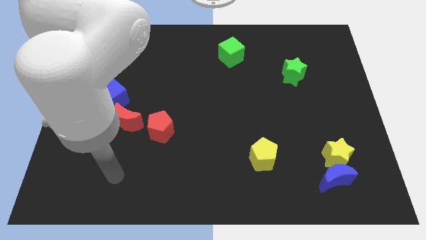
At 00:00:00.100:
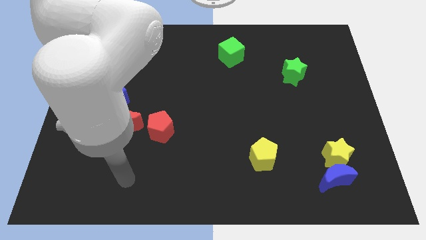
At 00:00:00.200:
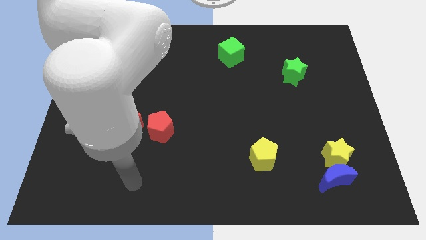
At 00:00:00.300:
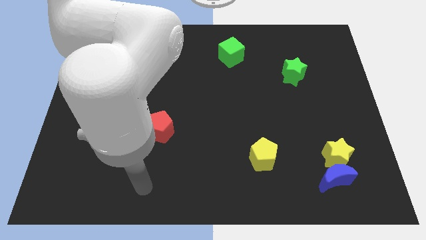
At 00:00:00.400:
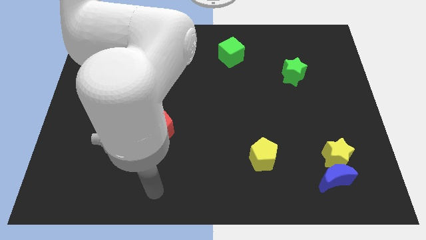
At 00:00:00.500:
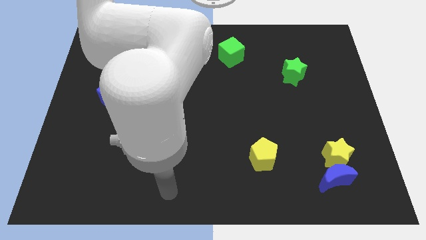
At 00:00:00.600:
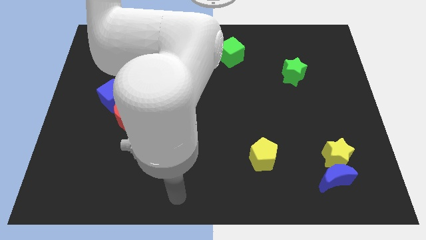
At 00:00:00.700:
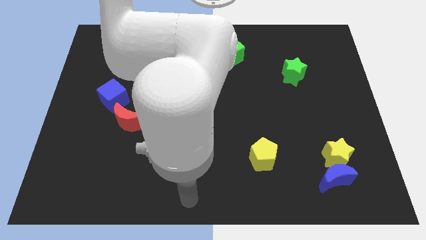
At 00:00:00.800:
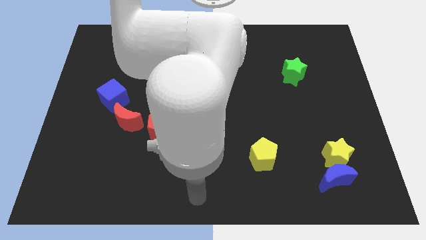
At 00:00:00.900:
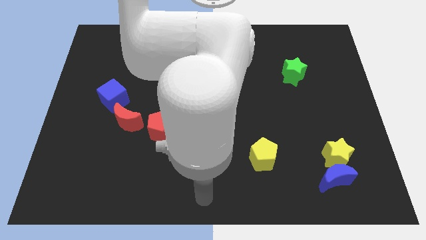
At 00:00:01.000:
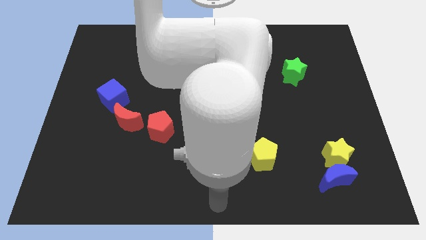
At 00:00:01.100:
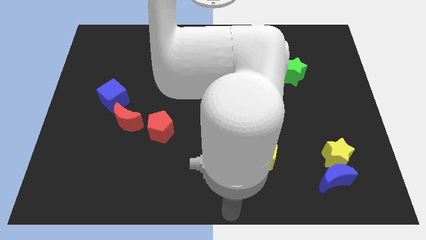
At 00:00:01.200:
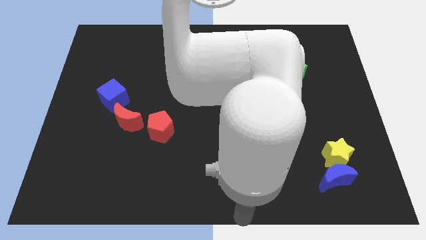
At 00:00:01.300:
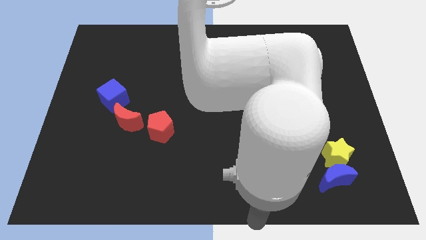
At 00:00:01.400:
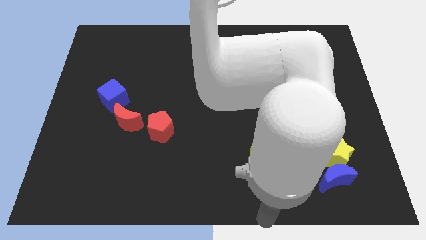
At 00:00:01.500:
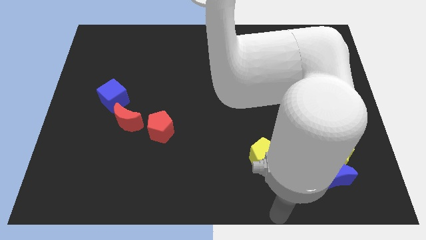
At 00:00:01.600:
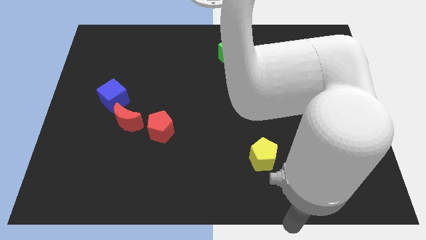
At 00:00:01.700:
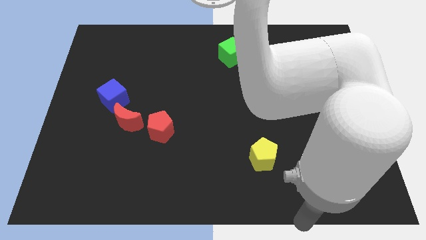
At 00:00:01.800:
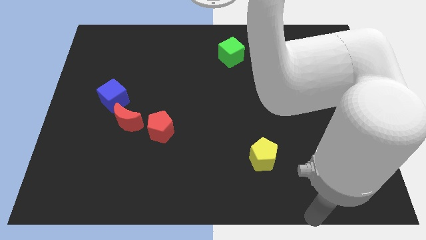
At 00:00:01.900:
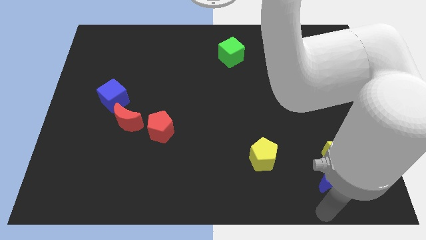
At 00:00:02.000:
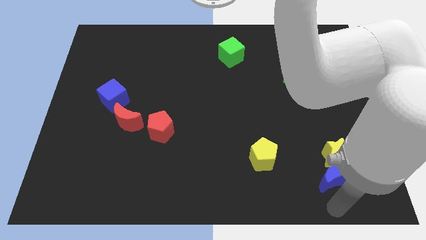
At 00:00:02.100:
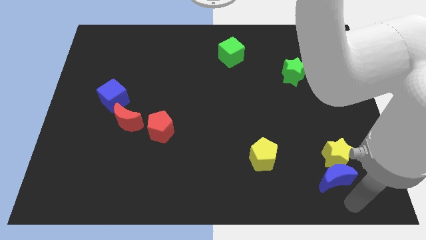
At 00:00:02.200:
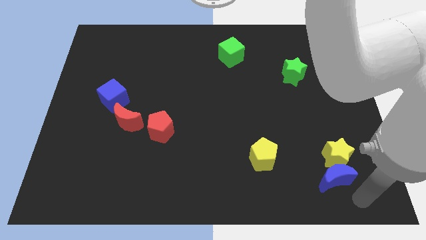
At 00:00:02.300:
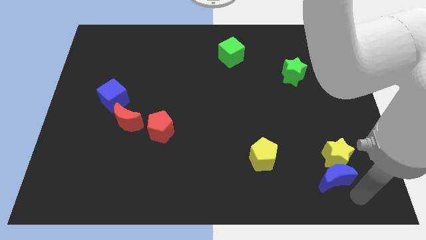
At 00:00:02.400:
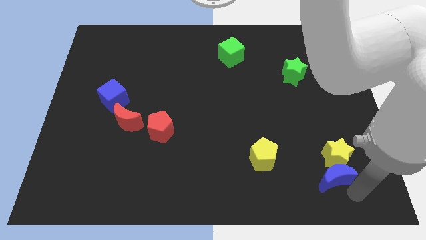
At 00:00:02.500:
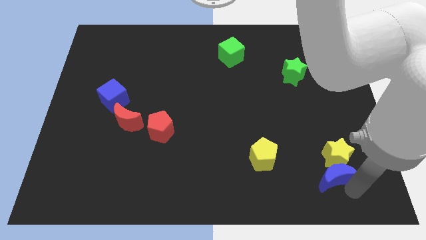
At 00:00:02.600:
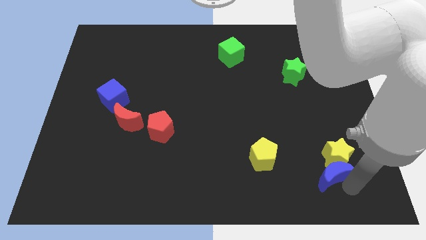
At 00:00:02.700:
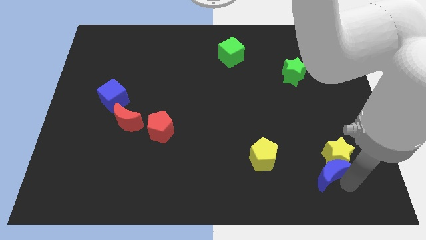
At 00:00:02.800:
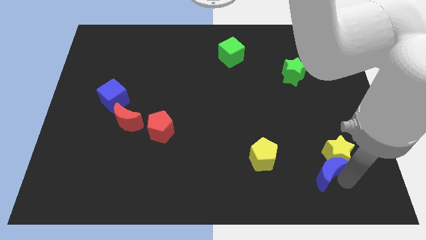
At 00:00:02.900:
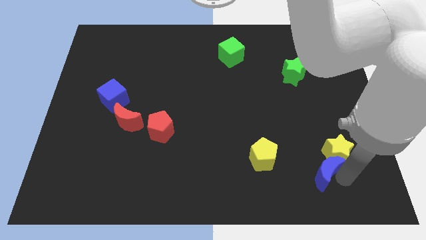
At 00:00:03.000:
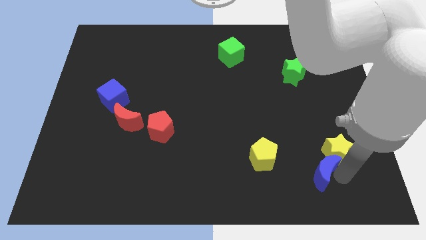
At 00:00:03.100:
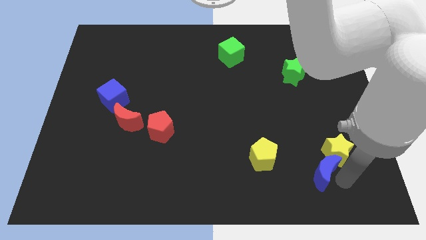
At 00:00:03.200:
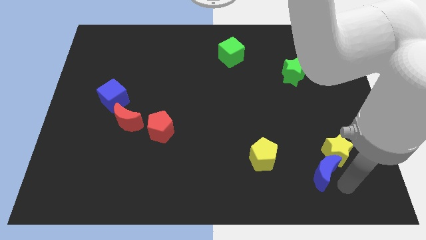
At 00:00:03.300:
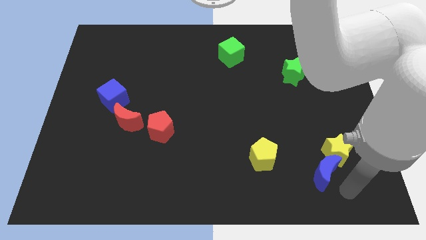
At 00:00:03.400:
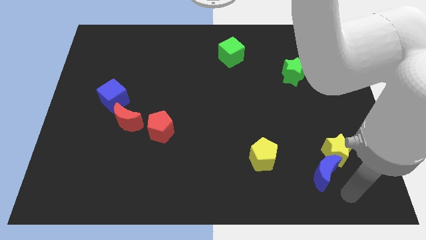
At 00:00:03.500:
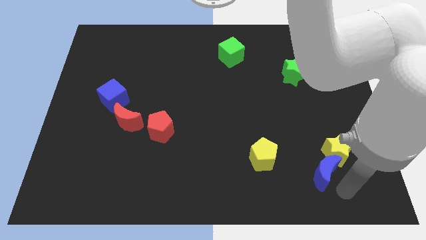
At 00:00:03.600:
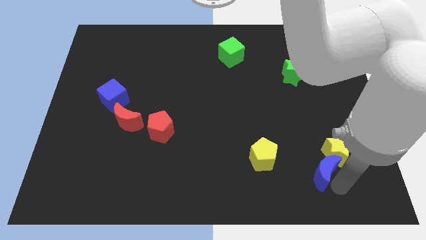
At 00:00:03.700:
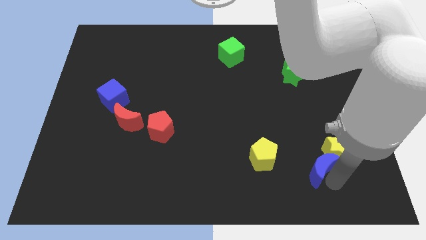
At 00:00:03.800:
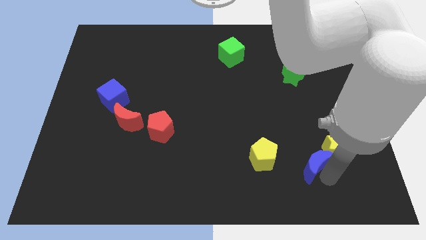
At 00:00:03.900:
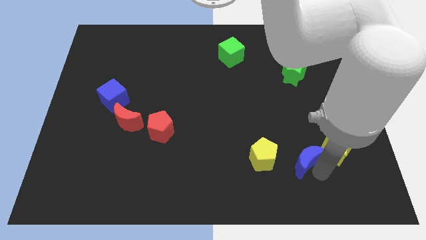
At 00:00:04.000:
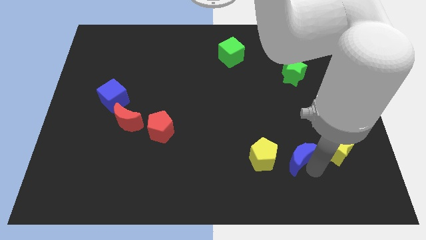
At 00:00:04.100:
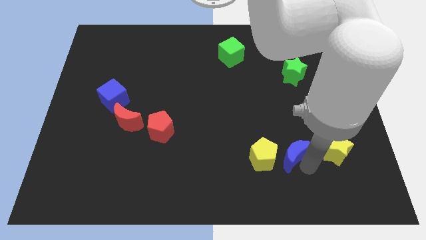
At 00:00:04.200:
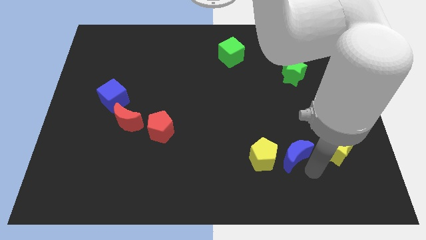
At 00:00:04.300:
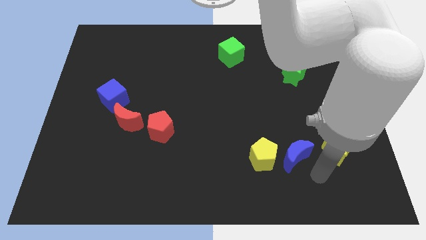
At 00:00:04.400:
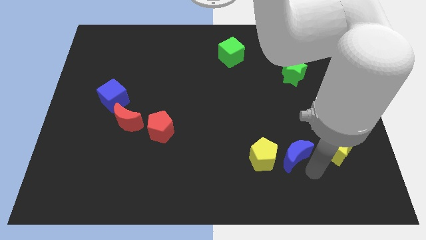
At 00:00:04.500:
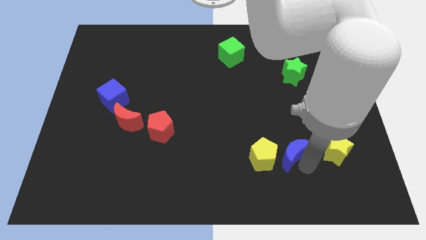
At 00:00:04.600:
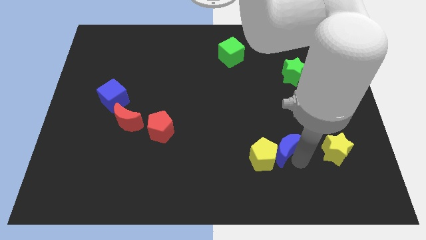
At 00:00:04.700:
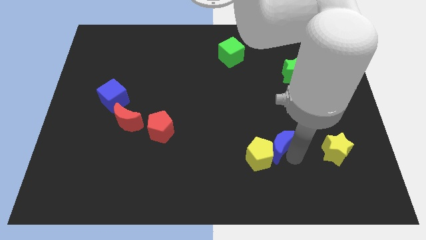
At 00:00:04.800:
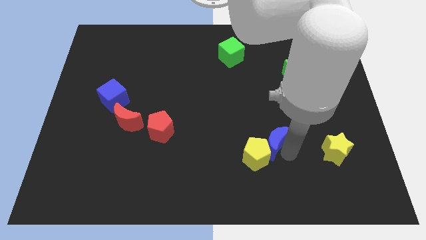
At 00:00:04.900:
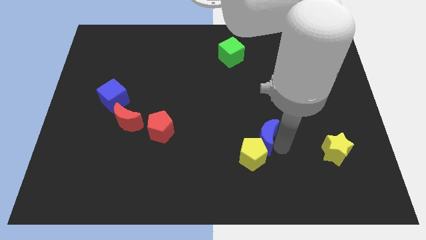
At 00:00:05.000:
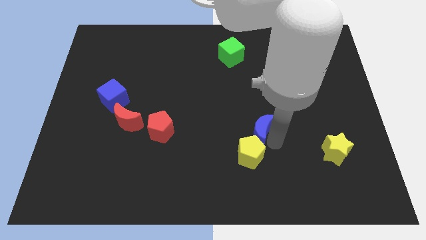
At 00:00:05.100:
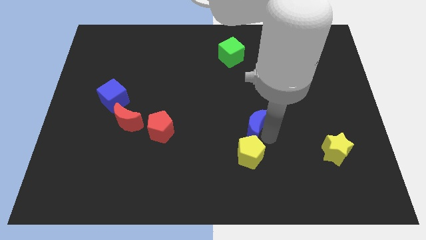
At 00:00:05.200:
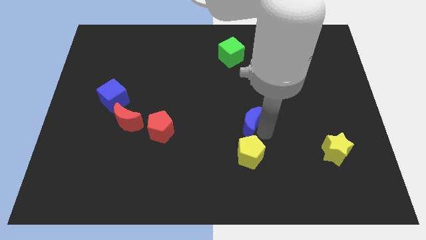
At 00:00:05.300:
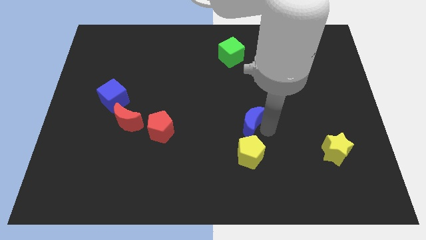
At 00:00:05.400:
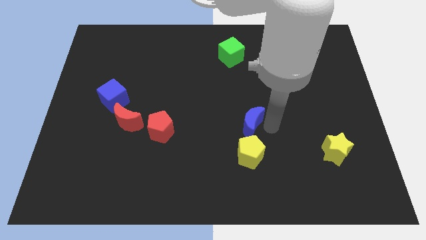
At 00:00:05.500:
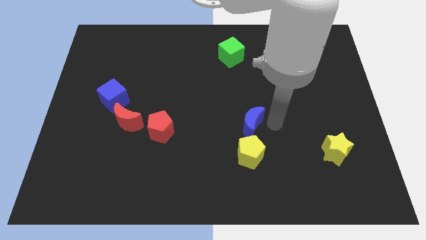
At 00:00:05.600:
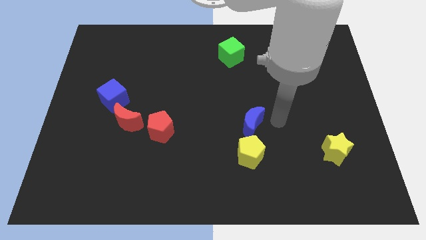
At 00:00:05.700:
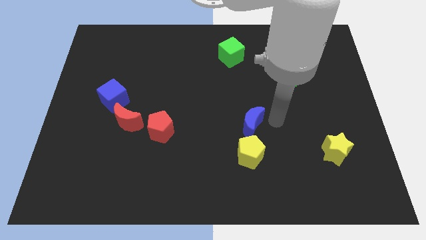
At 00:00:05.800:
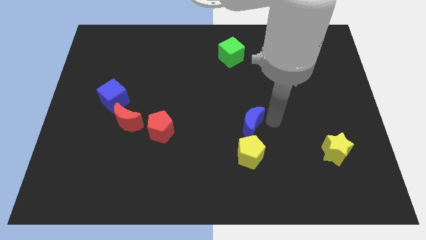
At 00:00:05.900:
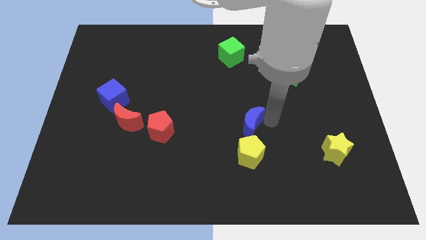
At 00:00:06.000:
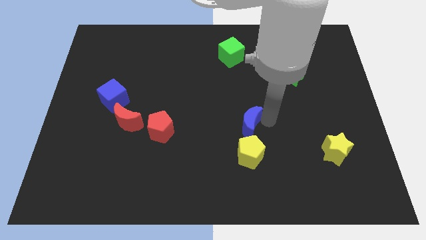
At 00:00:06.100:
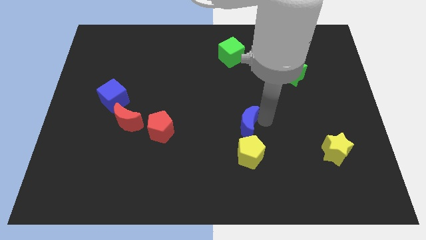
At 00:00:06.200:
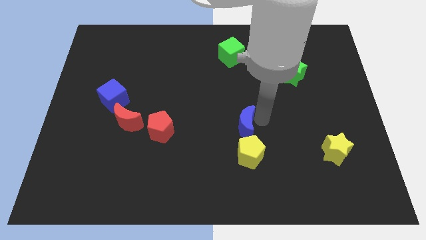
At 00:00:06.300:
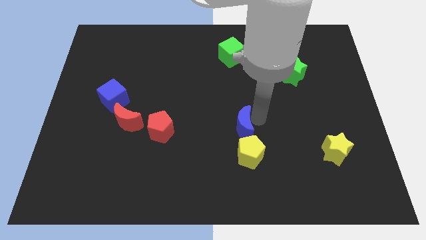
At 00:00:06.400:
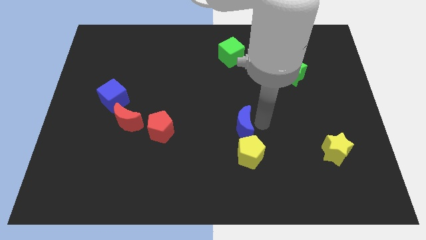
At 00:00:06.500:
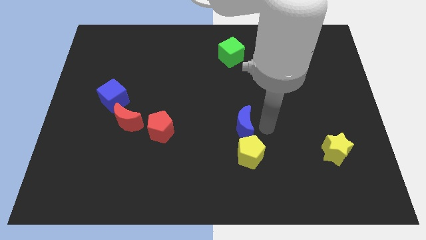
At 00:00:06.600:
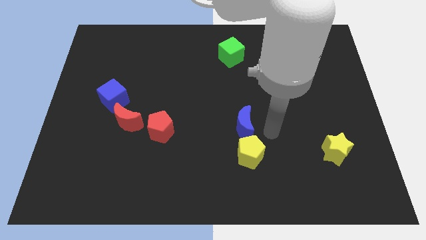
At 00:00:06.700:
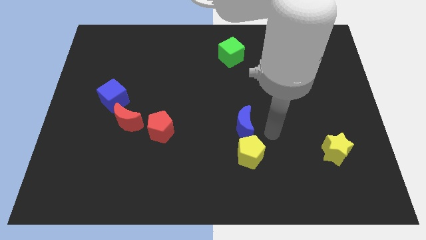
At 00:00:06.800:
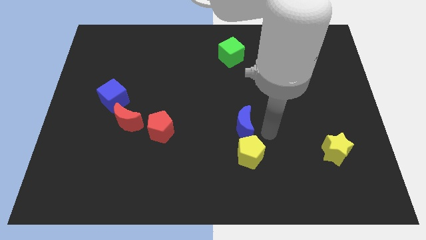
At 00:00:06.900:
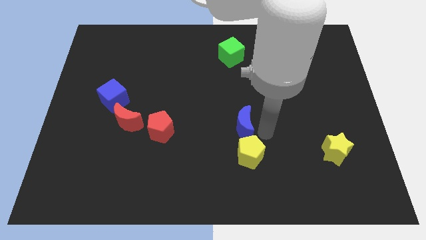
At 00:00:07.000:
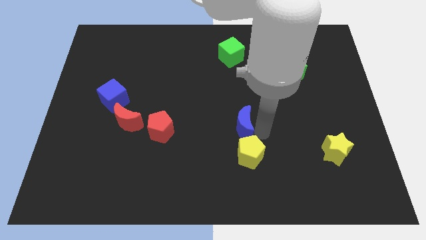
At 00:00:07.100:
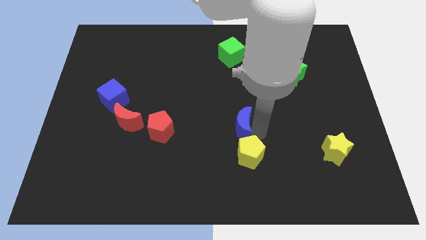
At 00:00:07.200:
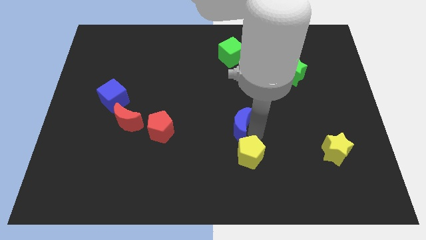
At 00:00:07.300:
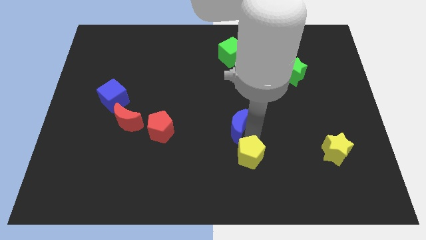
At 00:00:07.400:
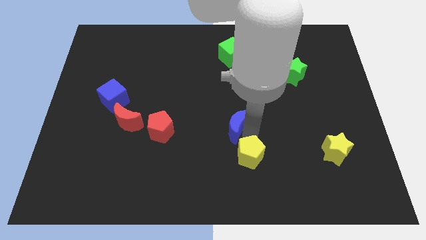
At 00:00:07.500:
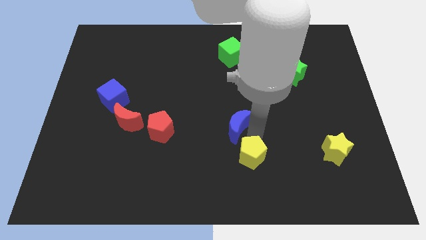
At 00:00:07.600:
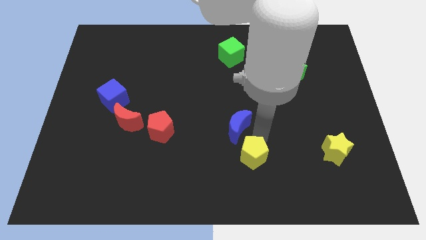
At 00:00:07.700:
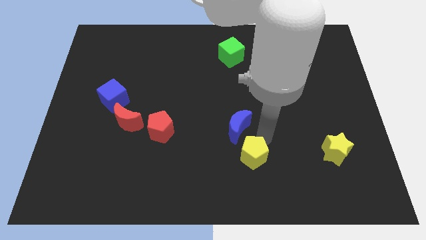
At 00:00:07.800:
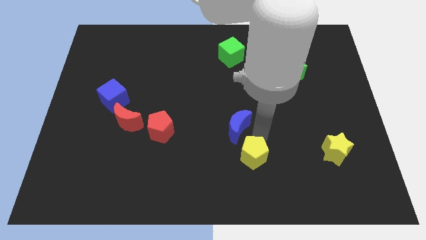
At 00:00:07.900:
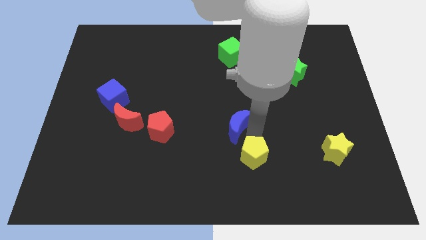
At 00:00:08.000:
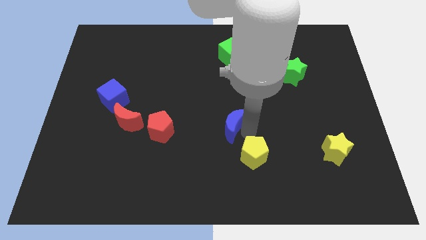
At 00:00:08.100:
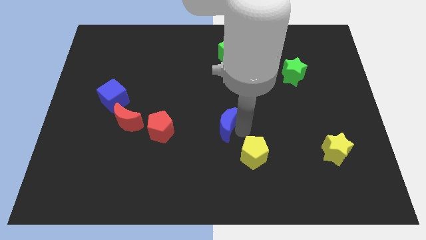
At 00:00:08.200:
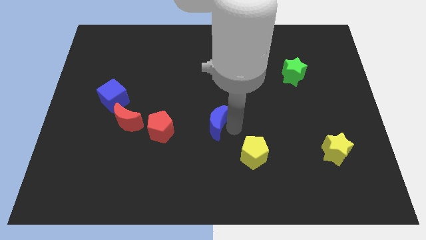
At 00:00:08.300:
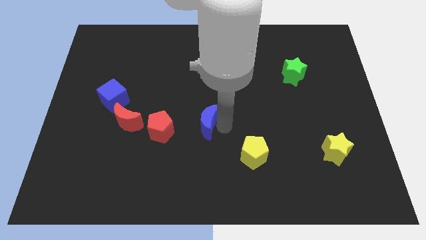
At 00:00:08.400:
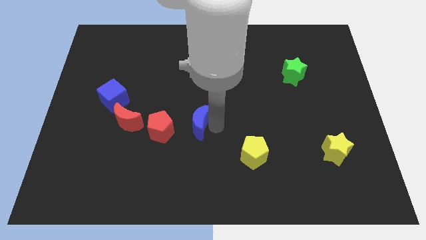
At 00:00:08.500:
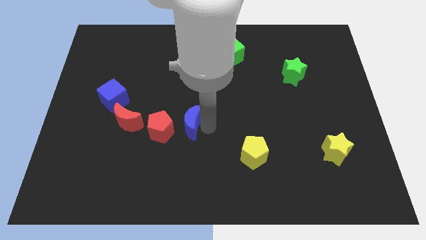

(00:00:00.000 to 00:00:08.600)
push the blue moon to the top right side of the red pentagon
